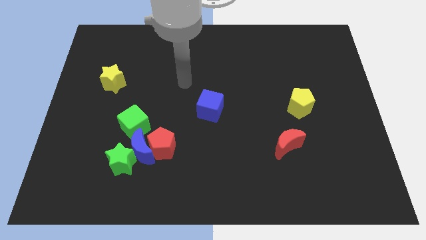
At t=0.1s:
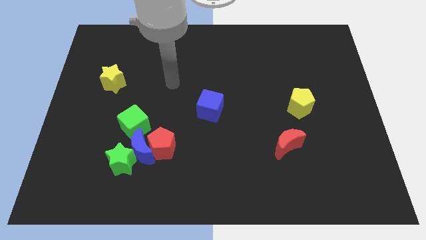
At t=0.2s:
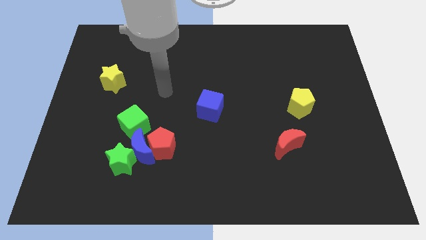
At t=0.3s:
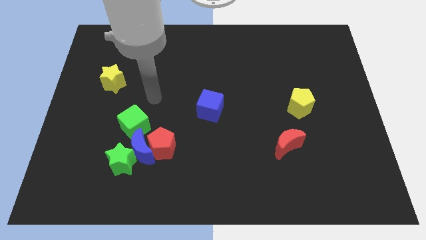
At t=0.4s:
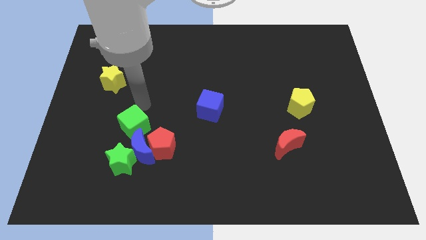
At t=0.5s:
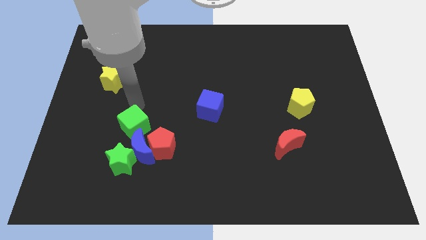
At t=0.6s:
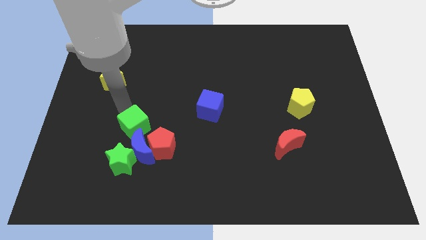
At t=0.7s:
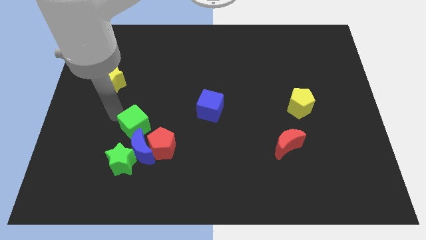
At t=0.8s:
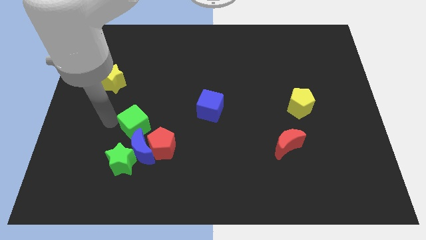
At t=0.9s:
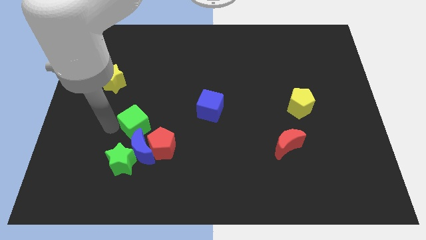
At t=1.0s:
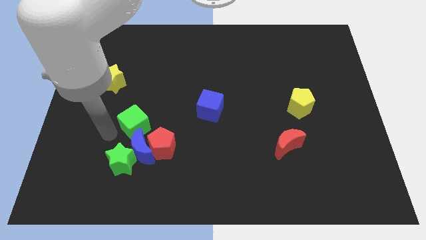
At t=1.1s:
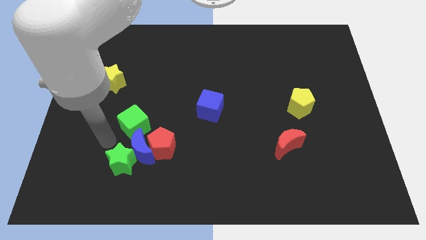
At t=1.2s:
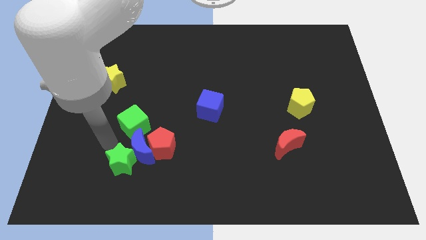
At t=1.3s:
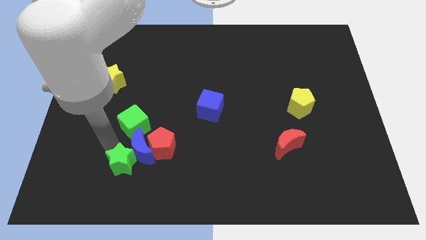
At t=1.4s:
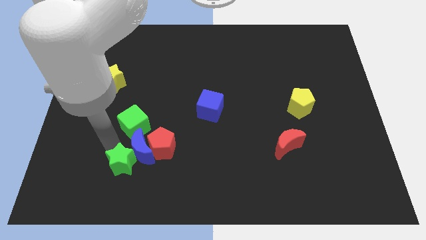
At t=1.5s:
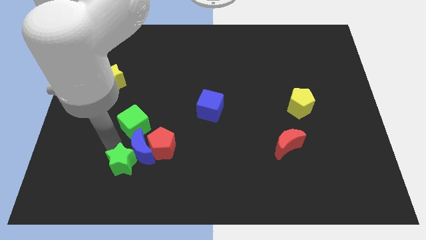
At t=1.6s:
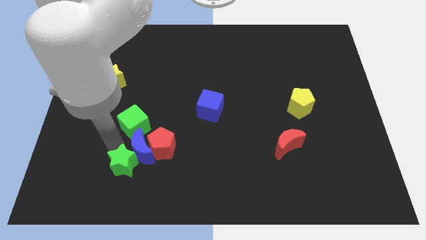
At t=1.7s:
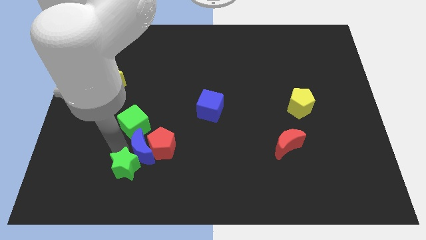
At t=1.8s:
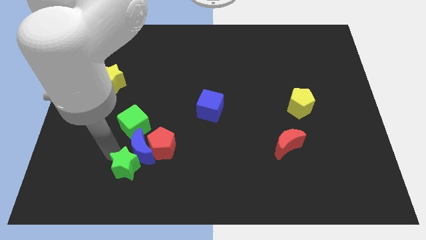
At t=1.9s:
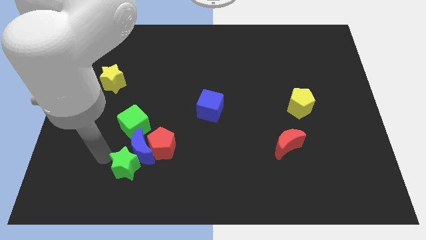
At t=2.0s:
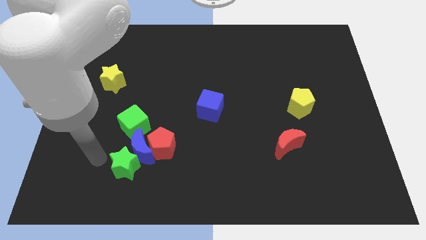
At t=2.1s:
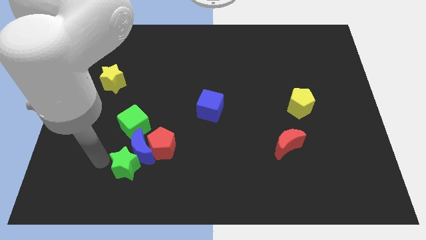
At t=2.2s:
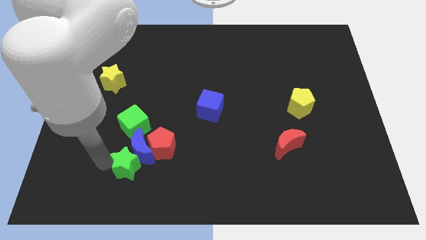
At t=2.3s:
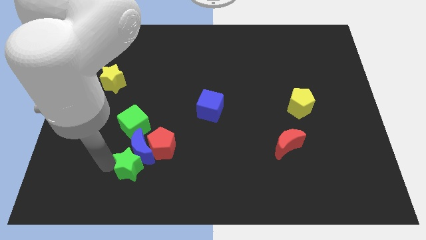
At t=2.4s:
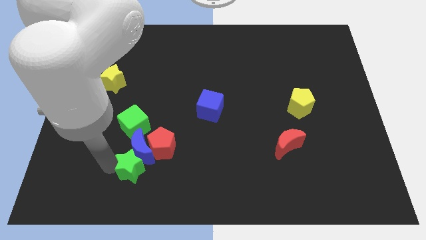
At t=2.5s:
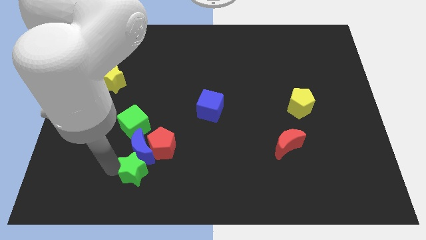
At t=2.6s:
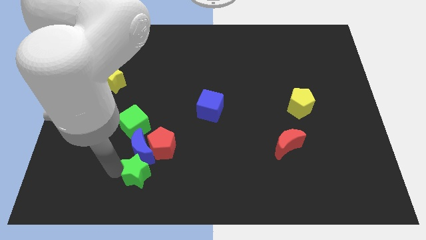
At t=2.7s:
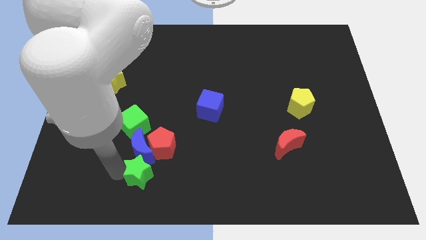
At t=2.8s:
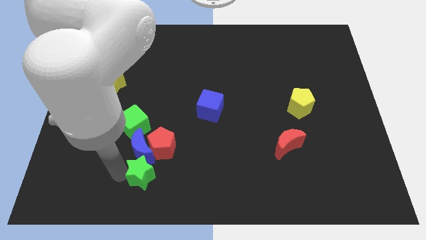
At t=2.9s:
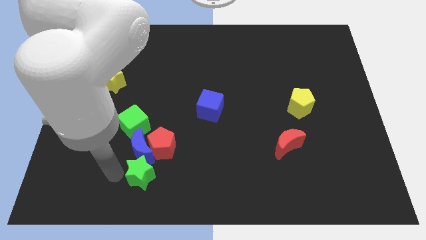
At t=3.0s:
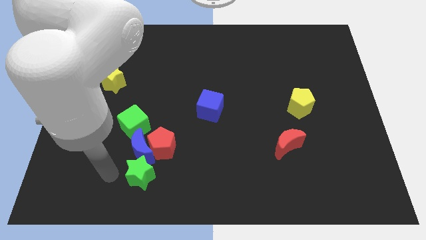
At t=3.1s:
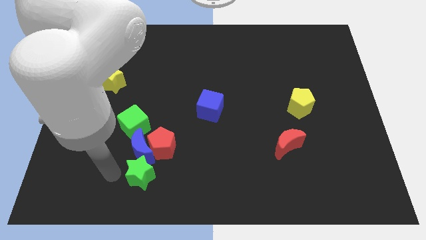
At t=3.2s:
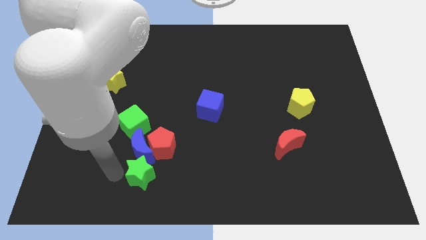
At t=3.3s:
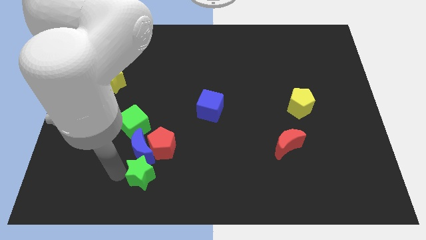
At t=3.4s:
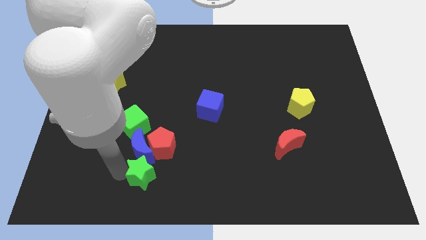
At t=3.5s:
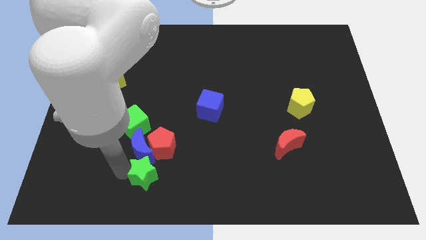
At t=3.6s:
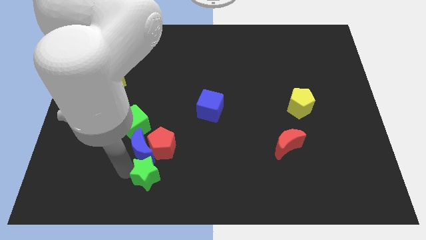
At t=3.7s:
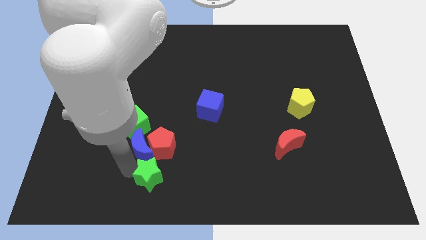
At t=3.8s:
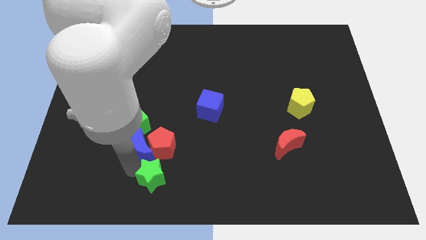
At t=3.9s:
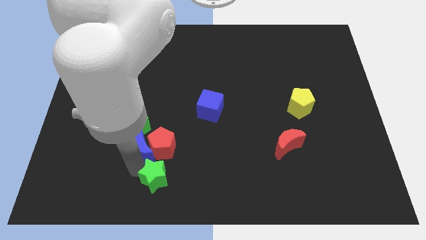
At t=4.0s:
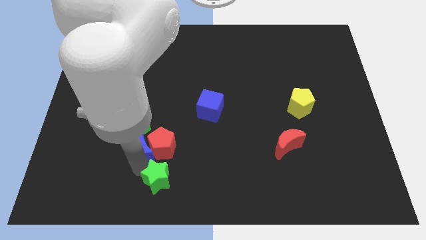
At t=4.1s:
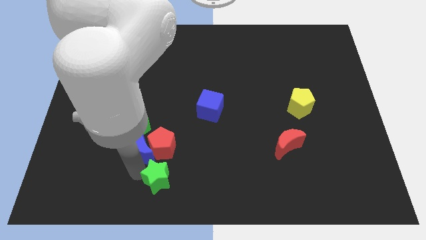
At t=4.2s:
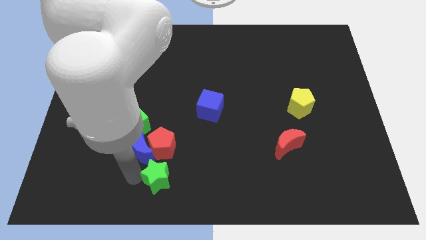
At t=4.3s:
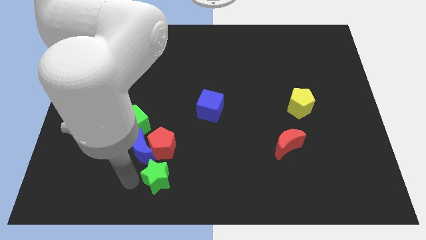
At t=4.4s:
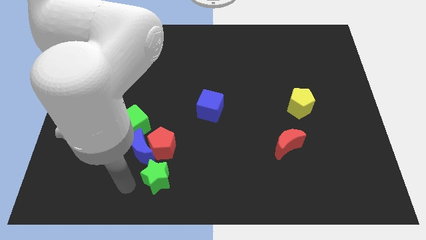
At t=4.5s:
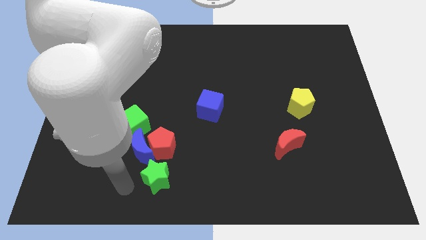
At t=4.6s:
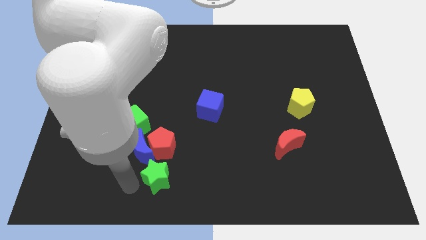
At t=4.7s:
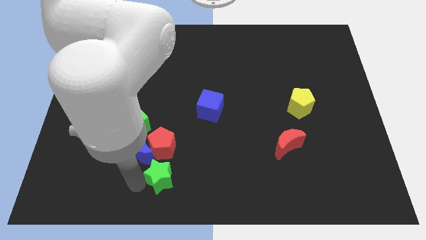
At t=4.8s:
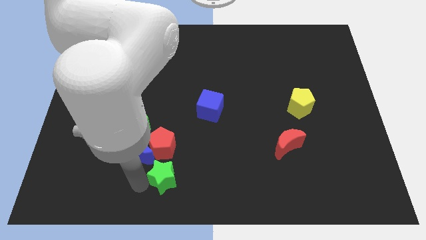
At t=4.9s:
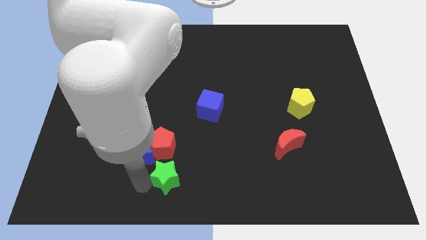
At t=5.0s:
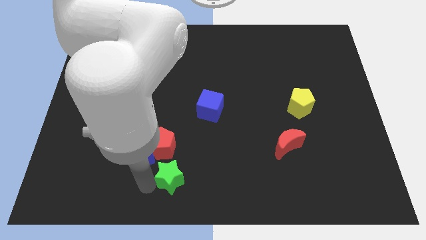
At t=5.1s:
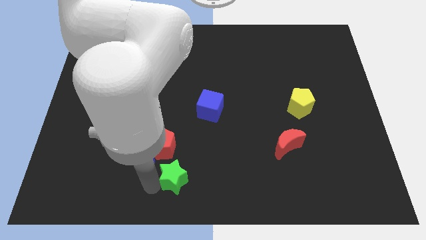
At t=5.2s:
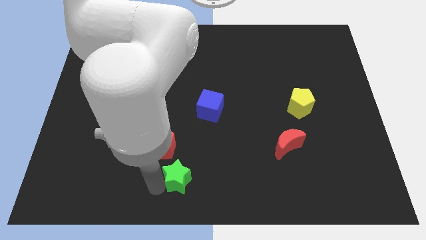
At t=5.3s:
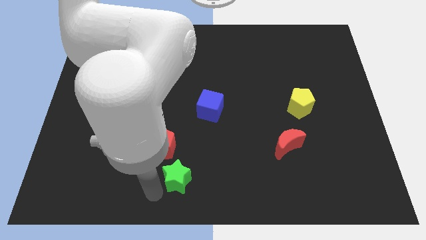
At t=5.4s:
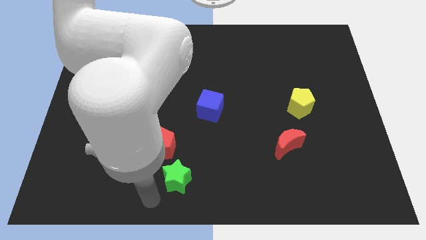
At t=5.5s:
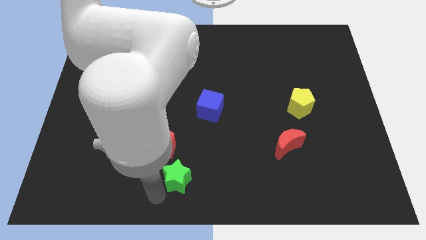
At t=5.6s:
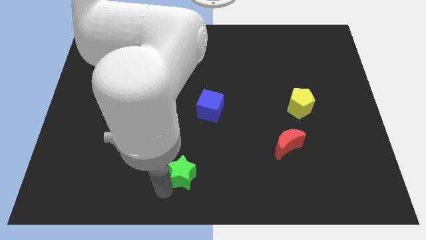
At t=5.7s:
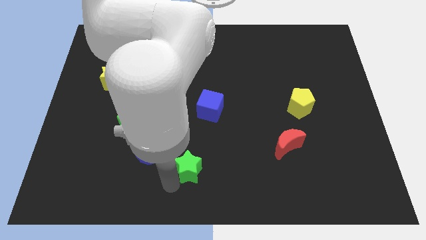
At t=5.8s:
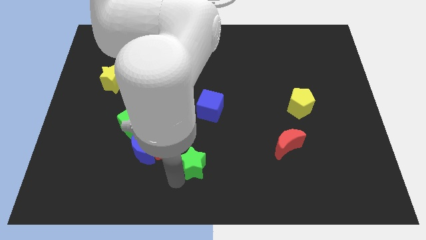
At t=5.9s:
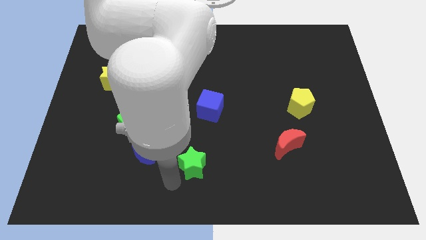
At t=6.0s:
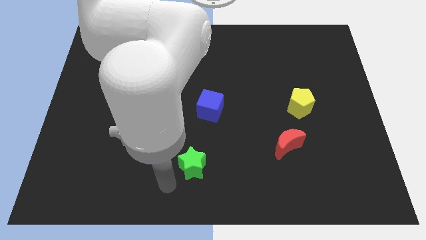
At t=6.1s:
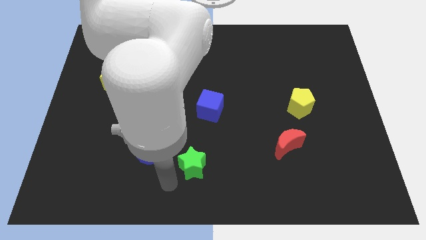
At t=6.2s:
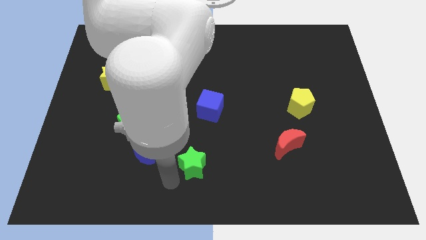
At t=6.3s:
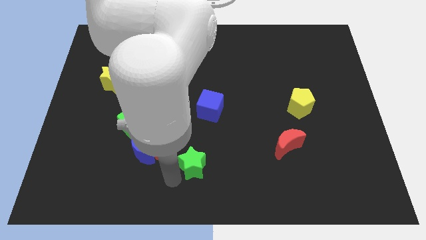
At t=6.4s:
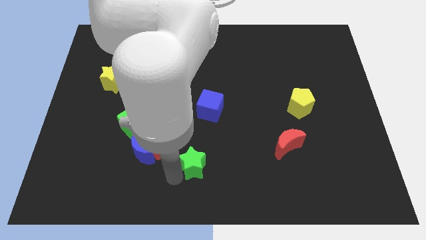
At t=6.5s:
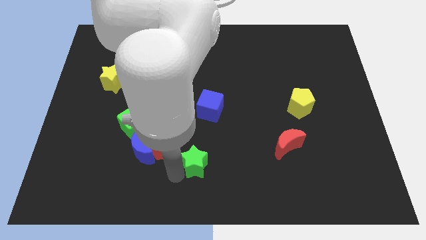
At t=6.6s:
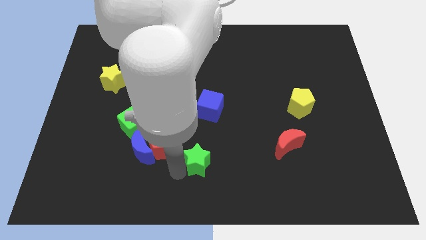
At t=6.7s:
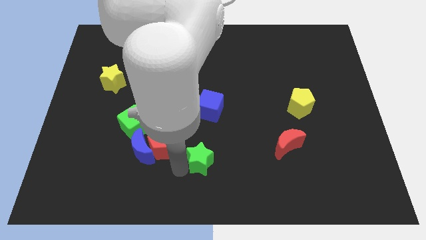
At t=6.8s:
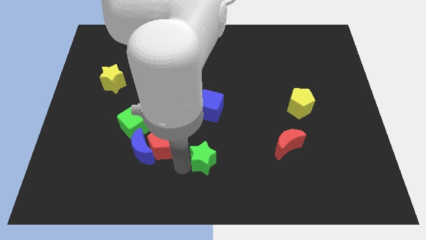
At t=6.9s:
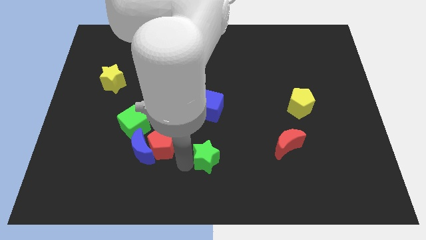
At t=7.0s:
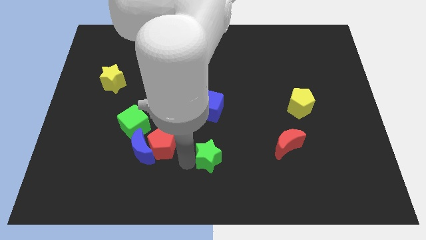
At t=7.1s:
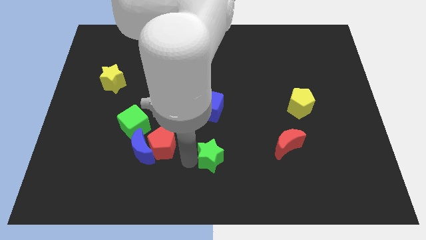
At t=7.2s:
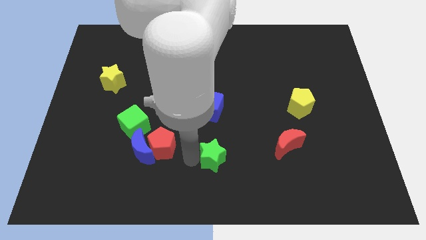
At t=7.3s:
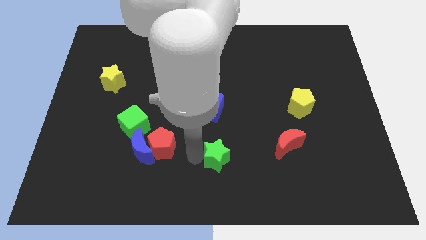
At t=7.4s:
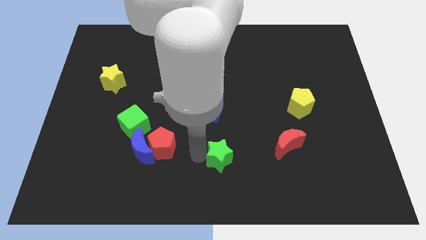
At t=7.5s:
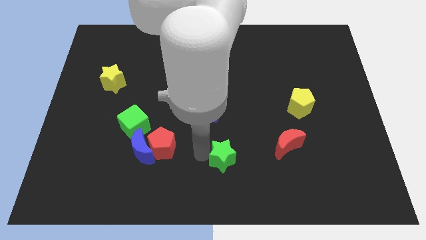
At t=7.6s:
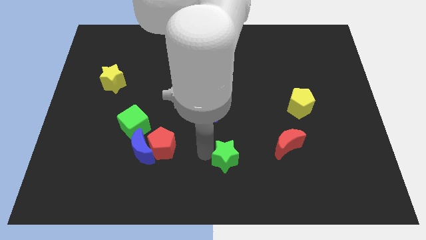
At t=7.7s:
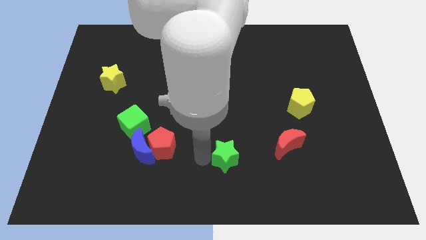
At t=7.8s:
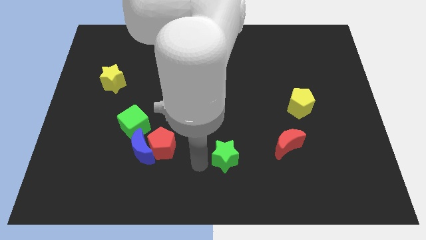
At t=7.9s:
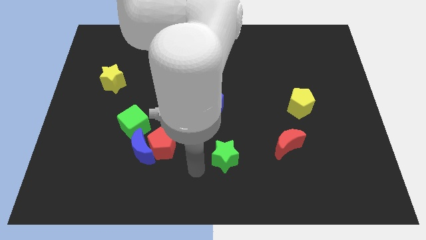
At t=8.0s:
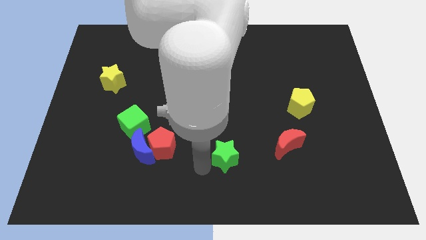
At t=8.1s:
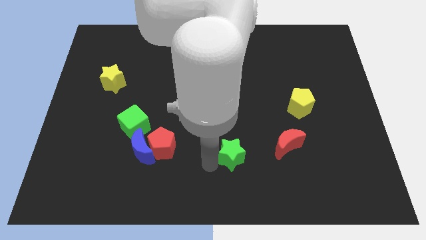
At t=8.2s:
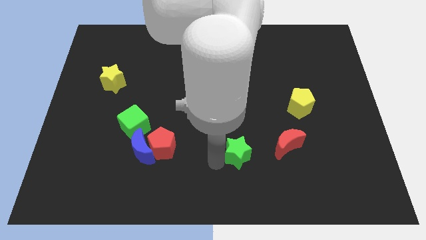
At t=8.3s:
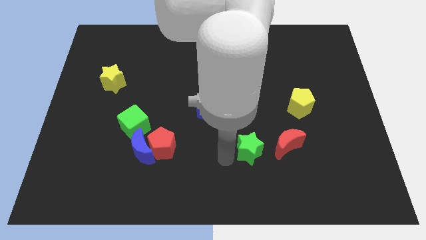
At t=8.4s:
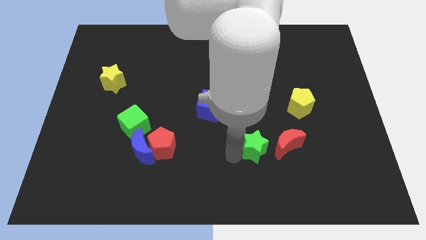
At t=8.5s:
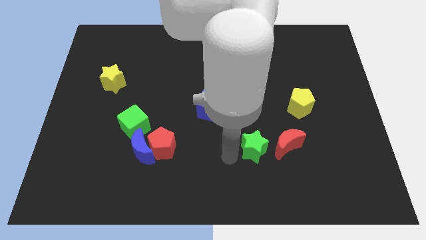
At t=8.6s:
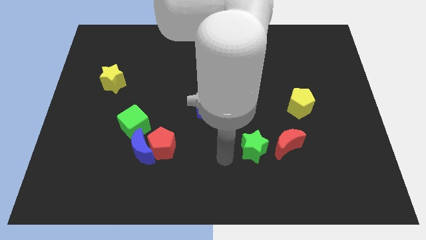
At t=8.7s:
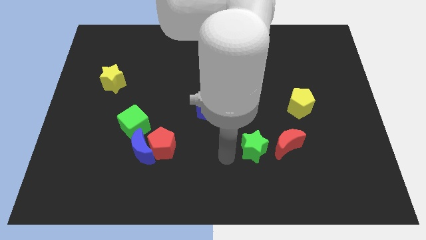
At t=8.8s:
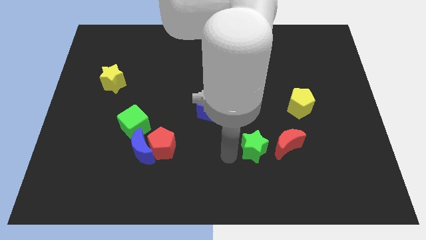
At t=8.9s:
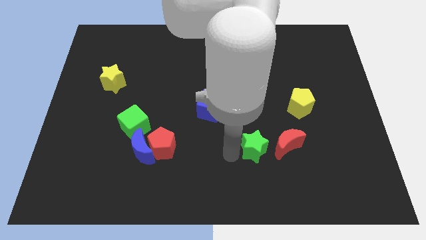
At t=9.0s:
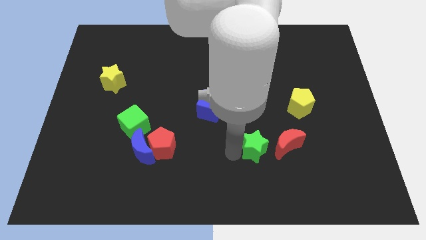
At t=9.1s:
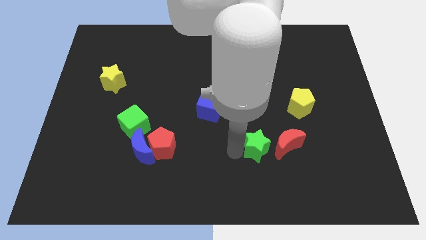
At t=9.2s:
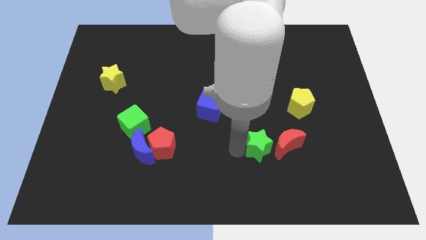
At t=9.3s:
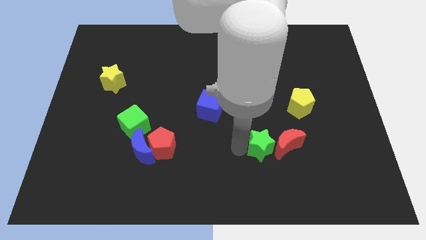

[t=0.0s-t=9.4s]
put the green star next to the red moon
